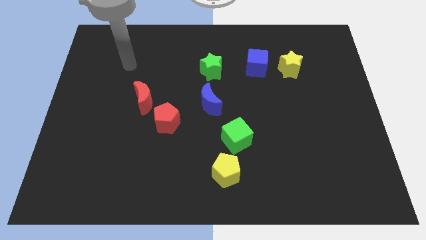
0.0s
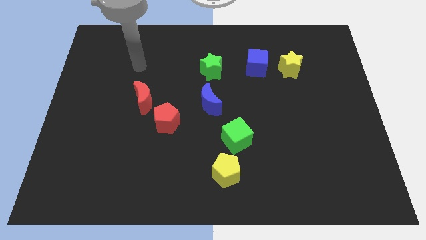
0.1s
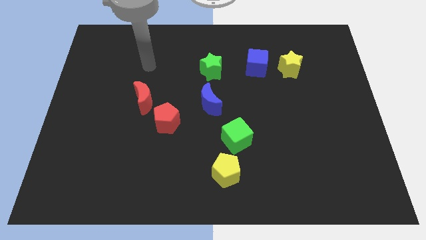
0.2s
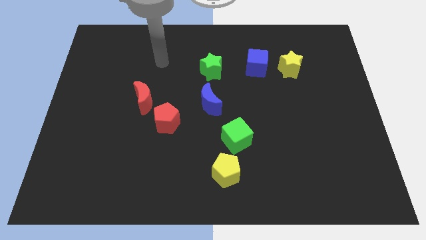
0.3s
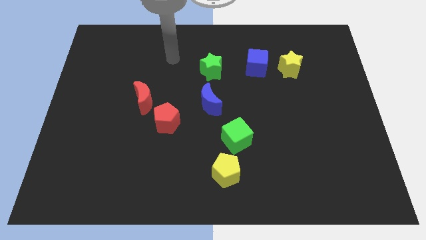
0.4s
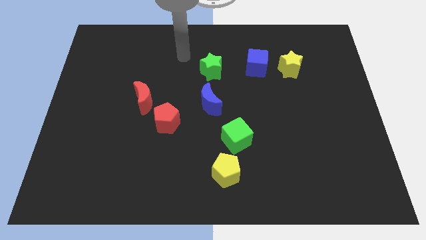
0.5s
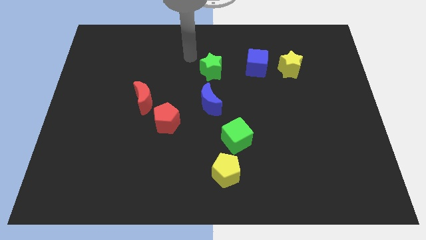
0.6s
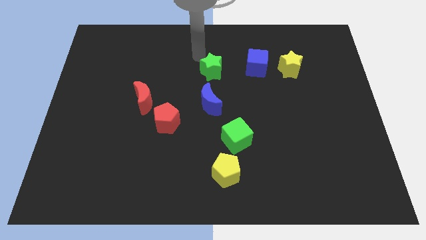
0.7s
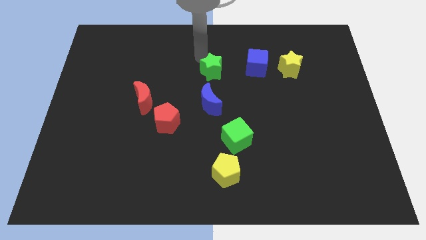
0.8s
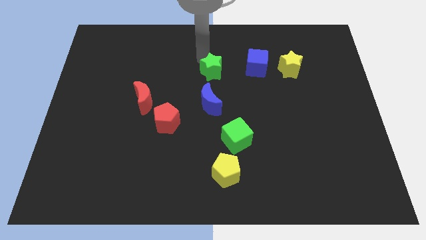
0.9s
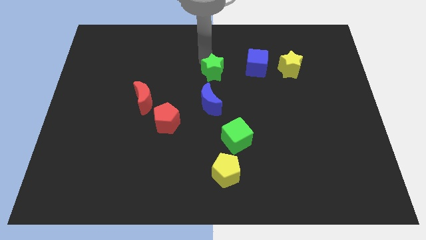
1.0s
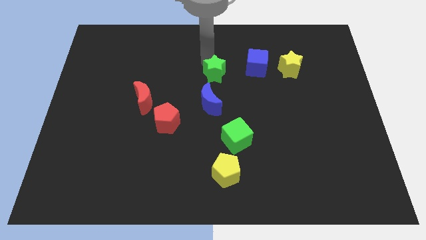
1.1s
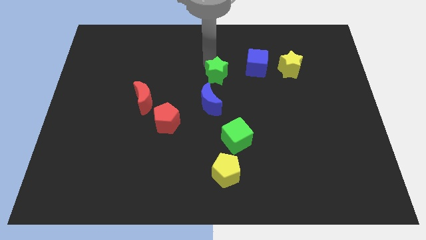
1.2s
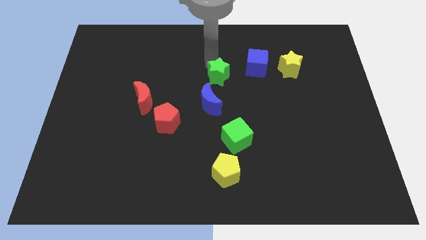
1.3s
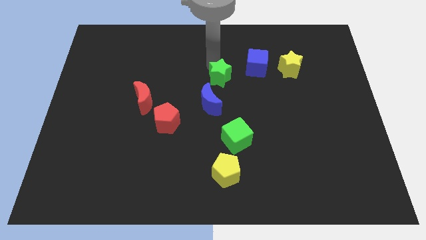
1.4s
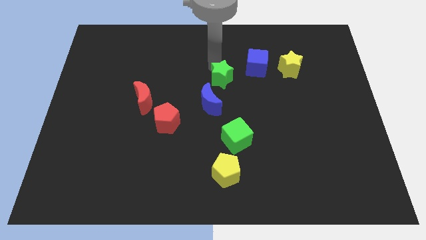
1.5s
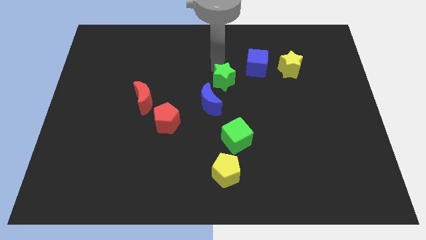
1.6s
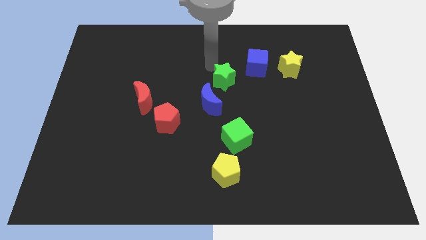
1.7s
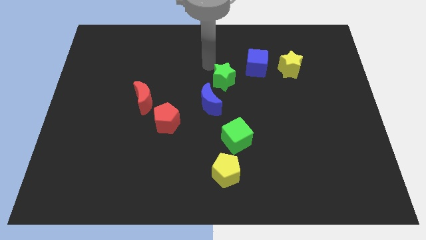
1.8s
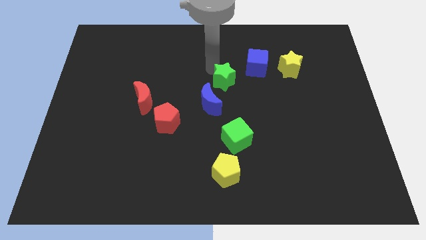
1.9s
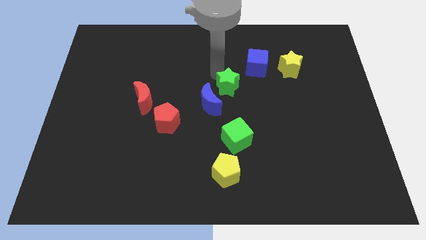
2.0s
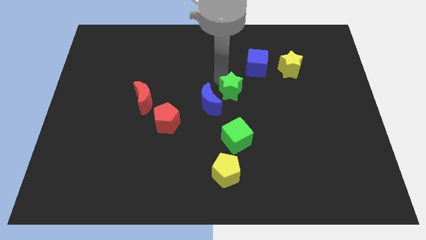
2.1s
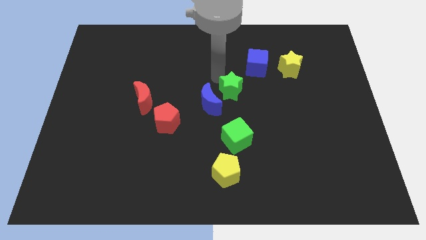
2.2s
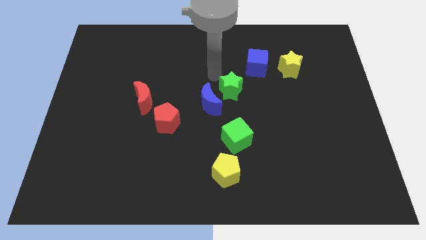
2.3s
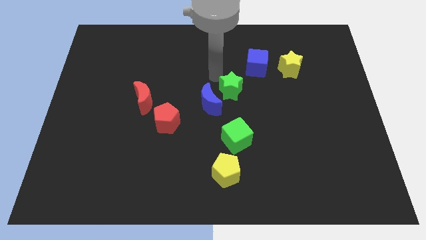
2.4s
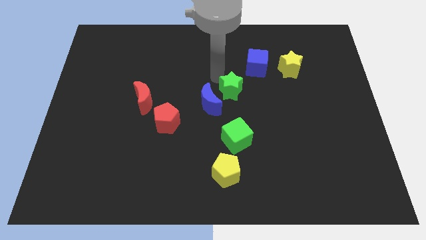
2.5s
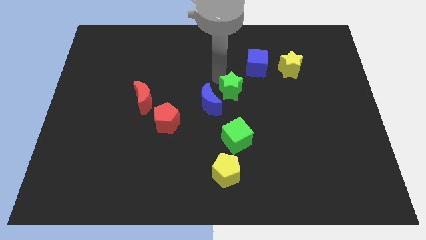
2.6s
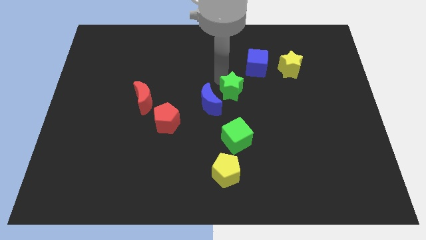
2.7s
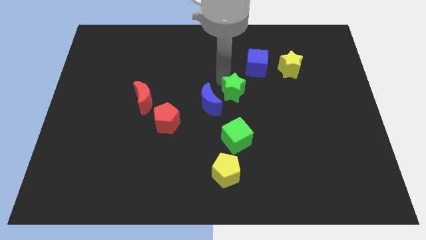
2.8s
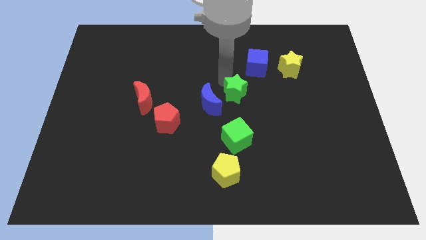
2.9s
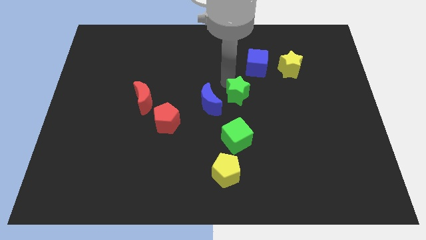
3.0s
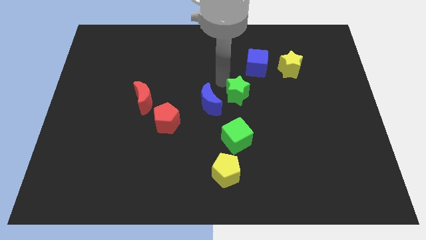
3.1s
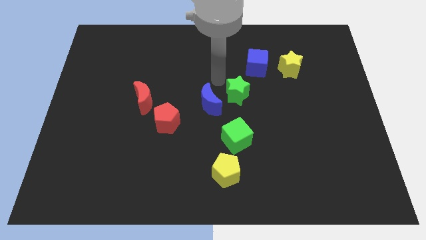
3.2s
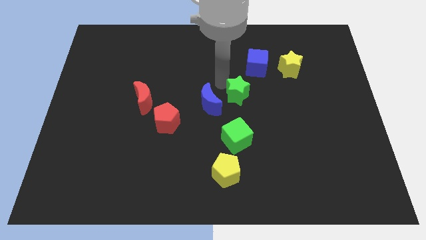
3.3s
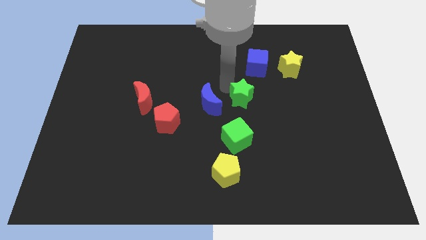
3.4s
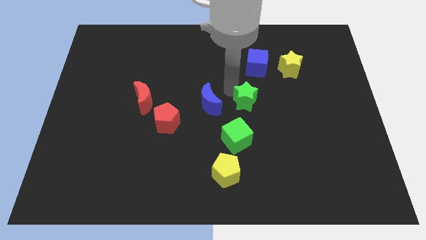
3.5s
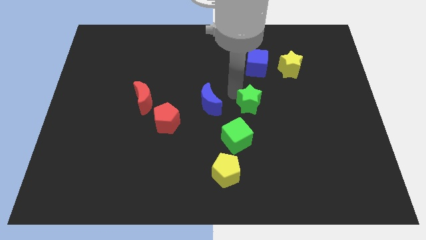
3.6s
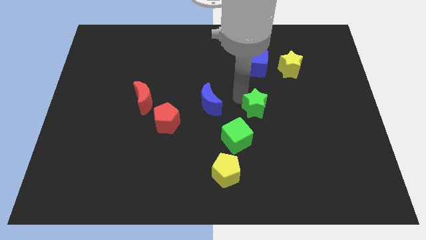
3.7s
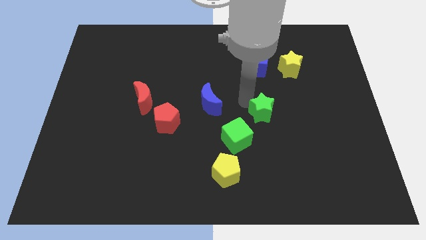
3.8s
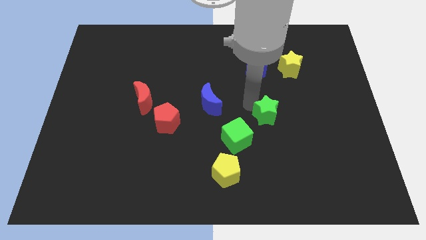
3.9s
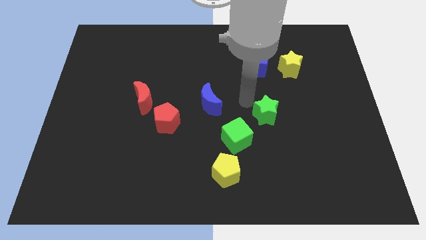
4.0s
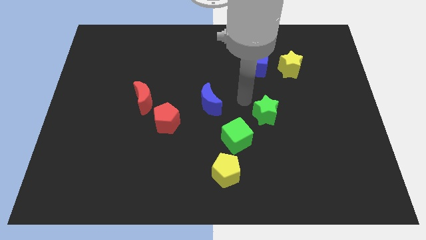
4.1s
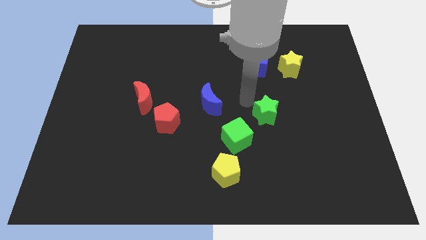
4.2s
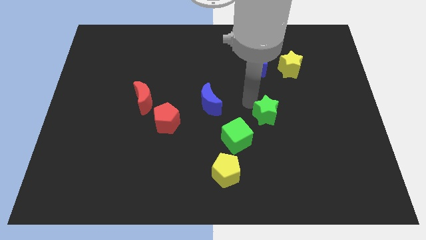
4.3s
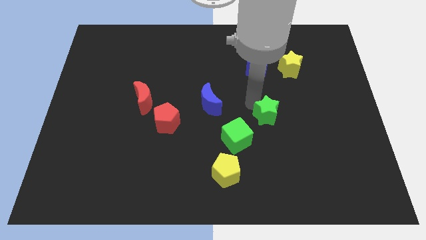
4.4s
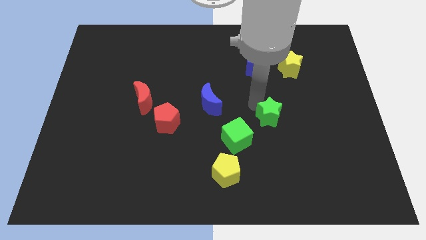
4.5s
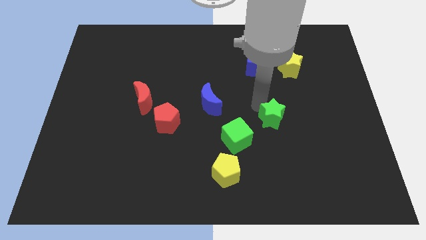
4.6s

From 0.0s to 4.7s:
slide the green star downwards and to the right

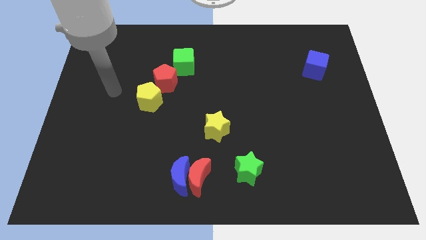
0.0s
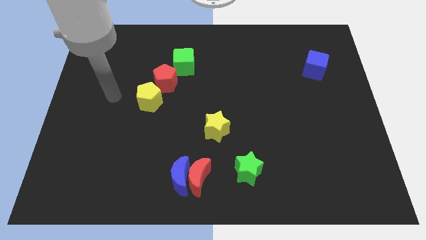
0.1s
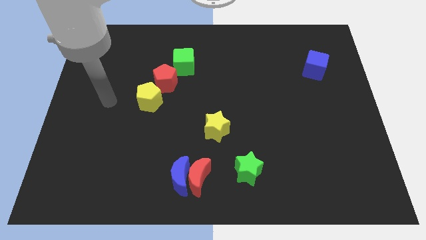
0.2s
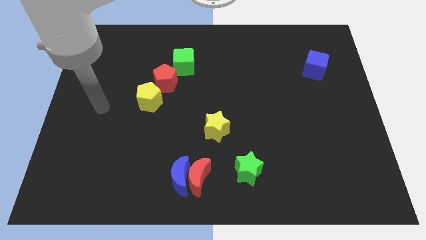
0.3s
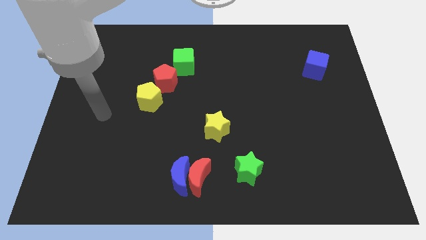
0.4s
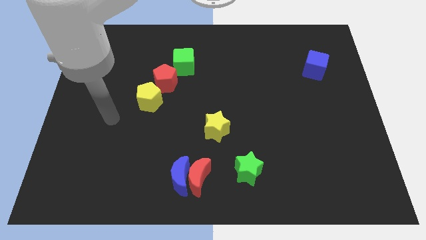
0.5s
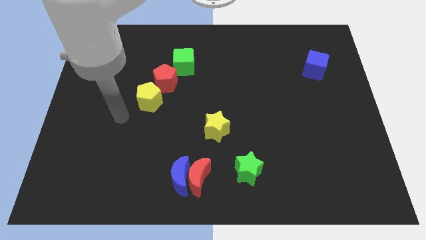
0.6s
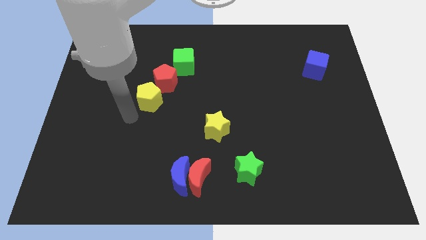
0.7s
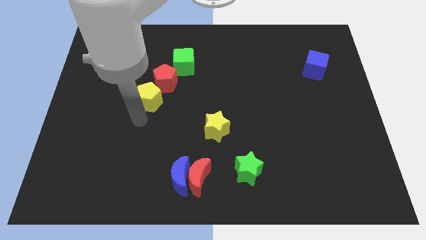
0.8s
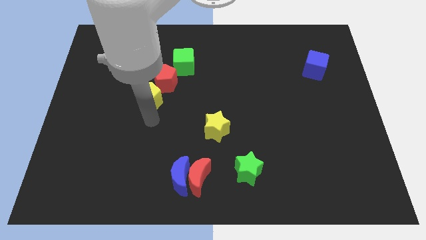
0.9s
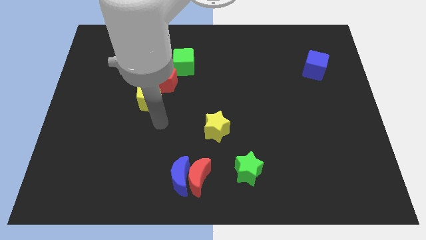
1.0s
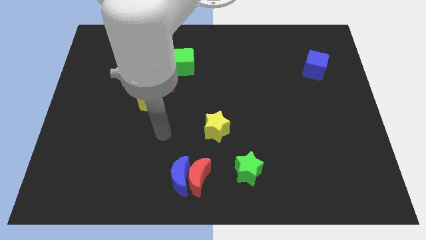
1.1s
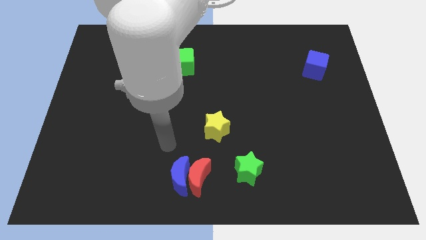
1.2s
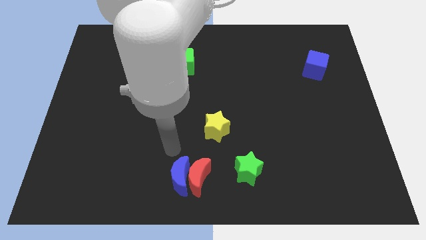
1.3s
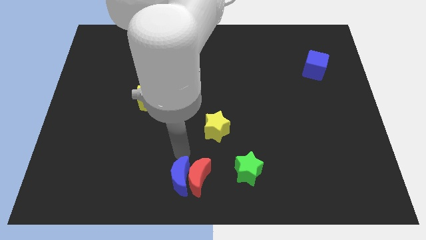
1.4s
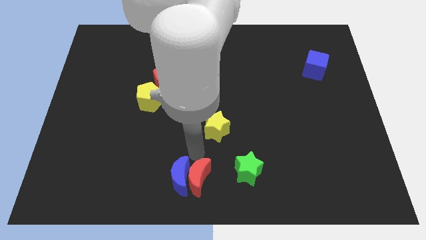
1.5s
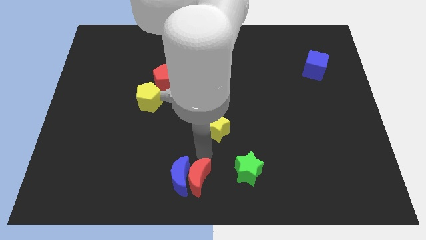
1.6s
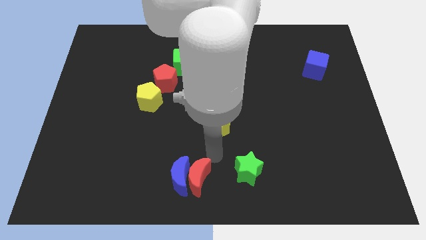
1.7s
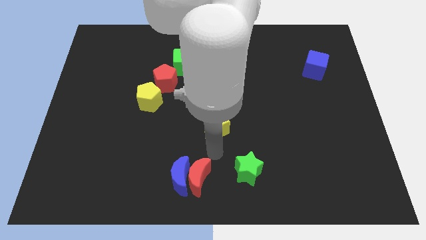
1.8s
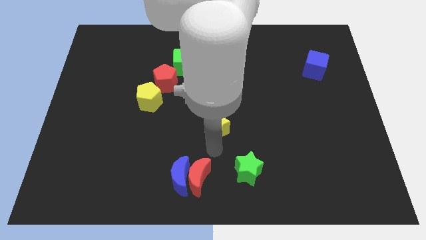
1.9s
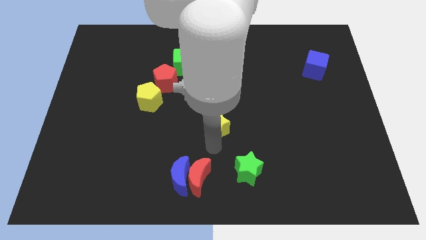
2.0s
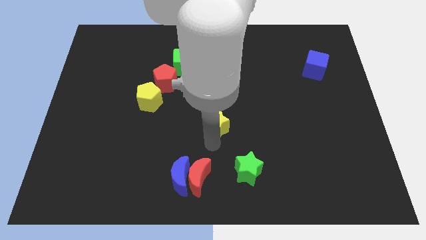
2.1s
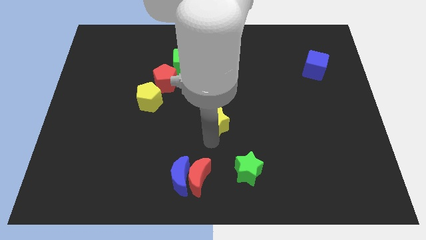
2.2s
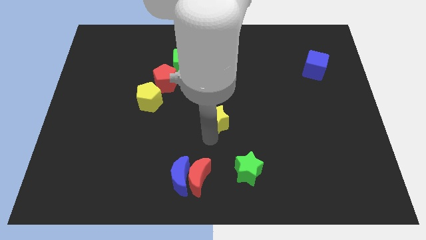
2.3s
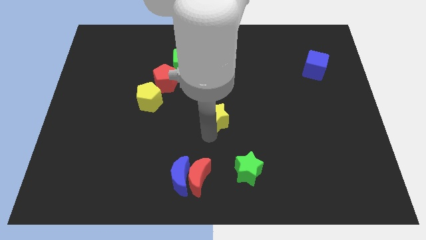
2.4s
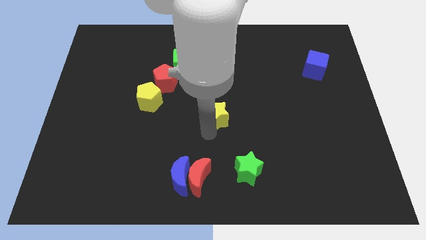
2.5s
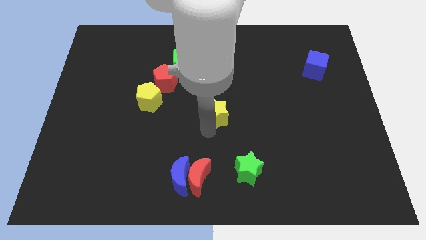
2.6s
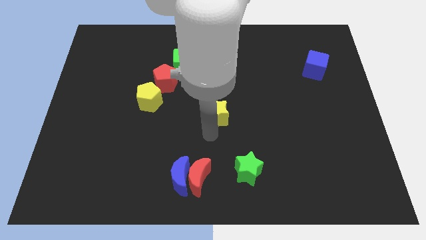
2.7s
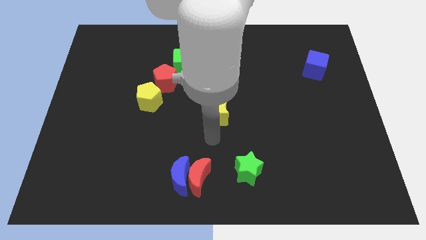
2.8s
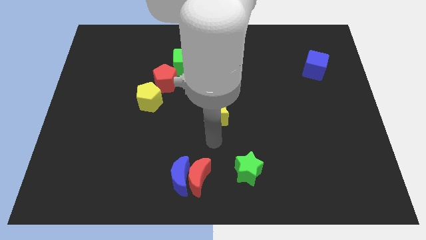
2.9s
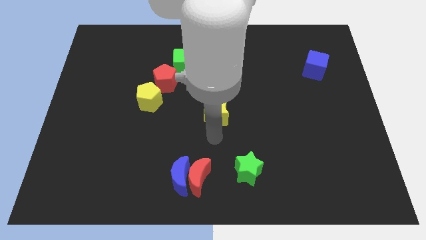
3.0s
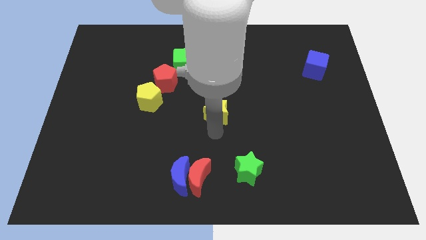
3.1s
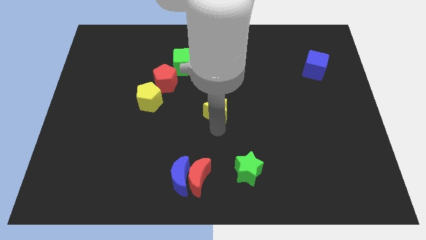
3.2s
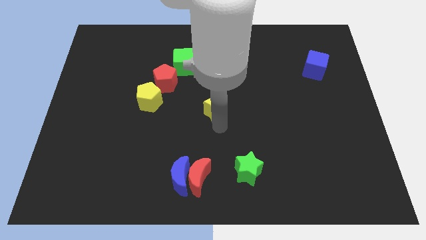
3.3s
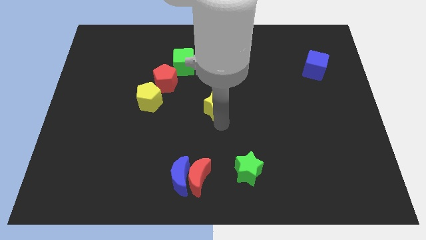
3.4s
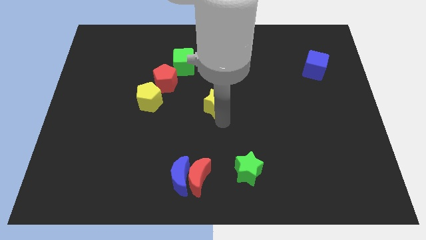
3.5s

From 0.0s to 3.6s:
move the yellow star up a bit

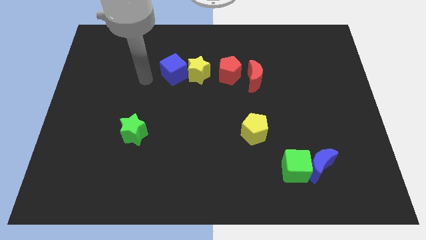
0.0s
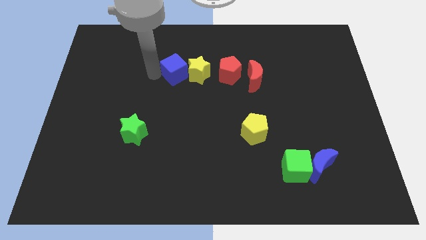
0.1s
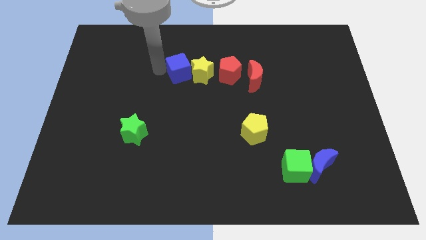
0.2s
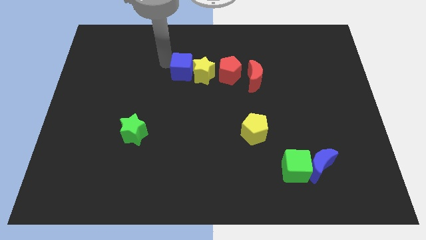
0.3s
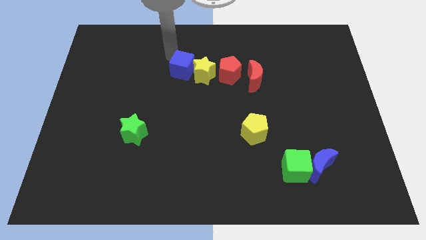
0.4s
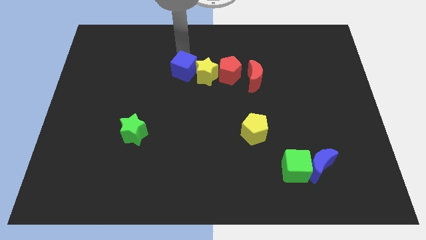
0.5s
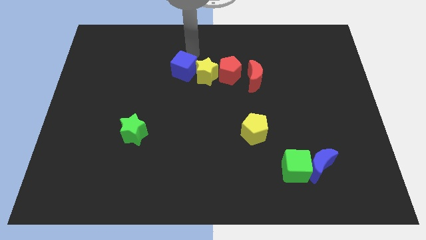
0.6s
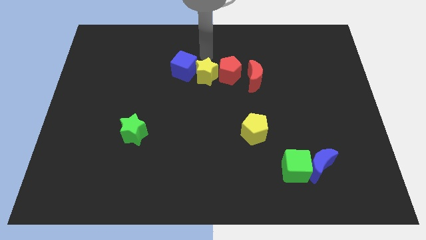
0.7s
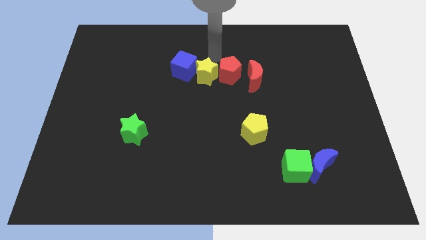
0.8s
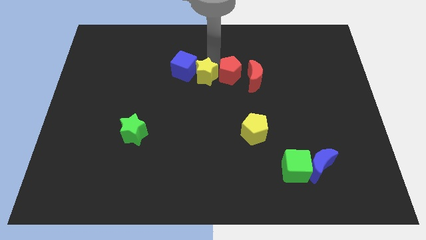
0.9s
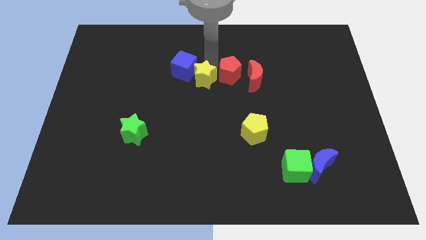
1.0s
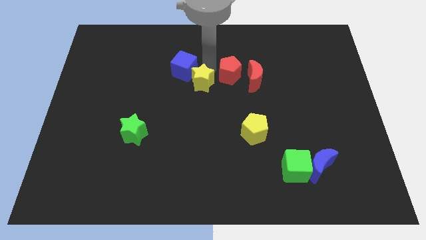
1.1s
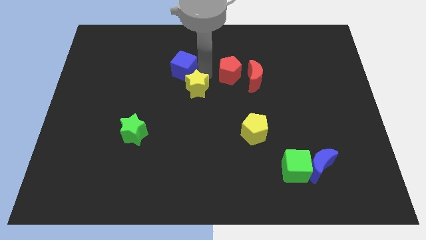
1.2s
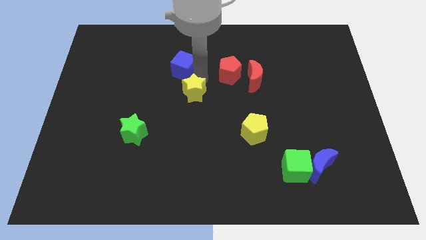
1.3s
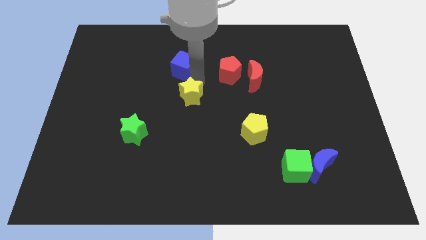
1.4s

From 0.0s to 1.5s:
slide the yellow star downwards somewhat
